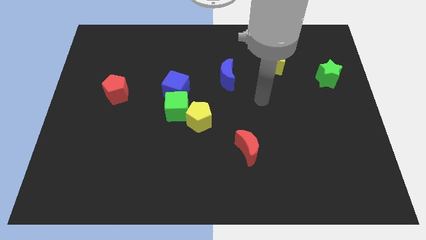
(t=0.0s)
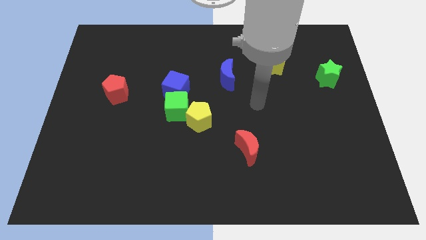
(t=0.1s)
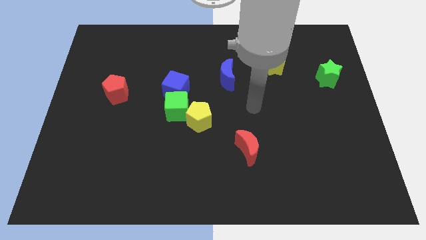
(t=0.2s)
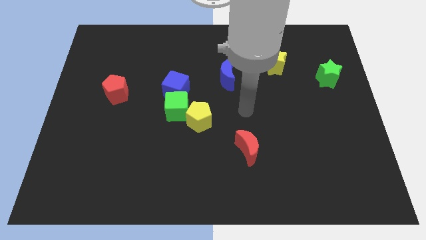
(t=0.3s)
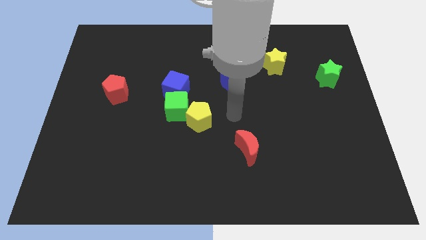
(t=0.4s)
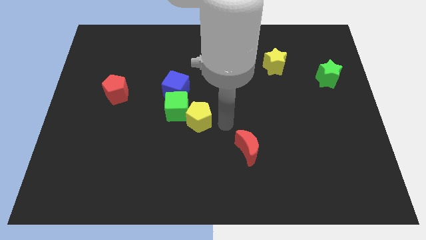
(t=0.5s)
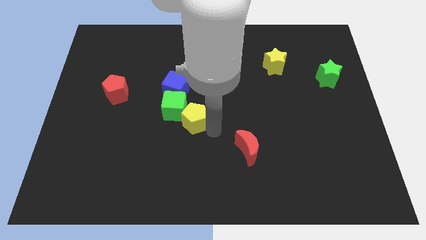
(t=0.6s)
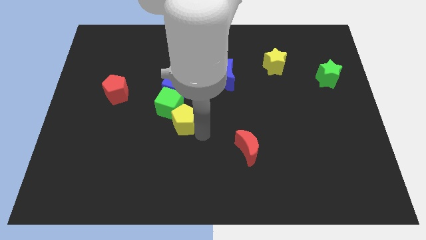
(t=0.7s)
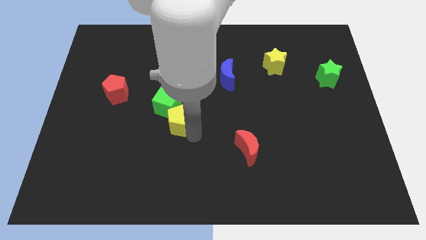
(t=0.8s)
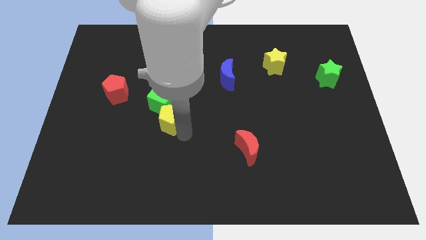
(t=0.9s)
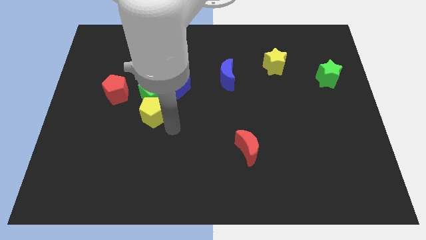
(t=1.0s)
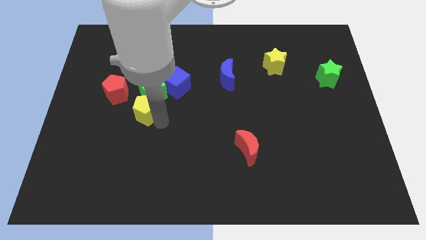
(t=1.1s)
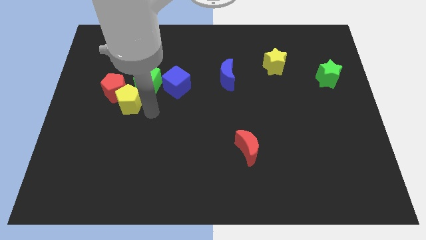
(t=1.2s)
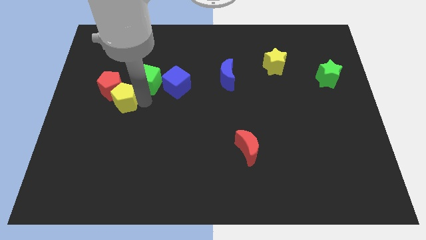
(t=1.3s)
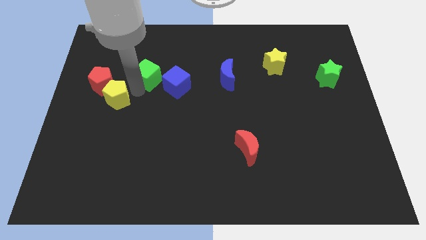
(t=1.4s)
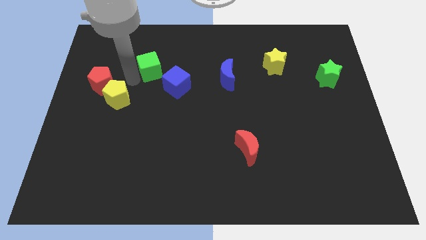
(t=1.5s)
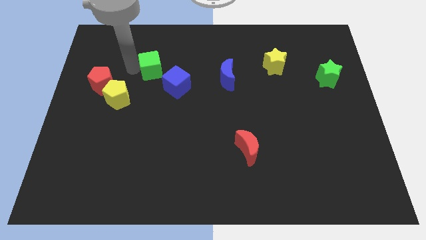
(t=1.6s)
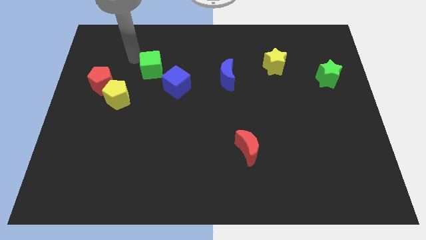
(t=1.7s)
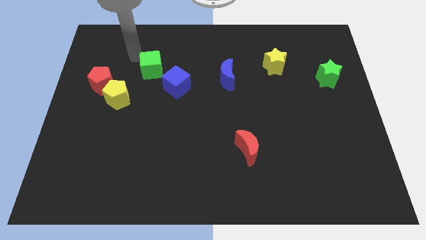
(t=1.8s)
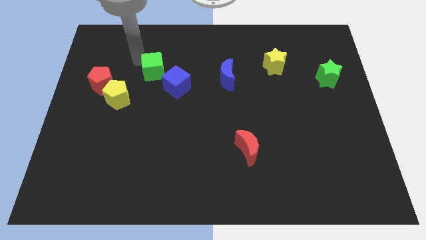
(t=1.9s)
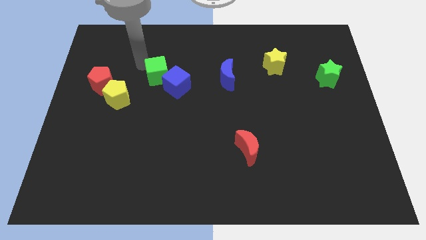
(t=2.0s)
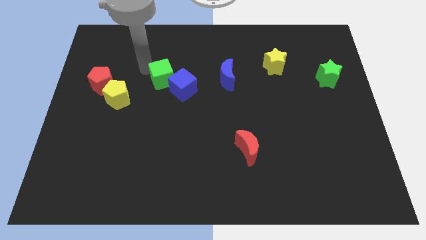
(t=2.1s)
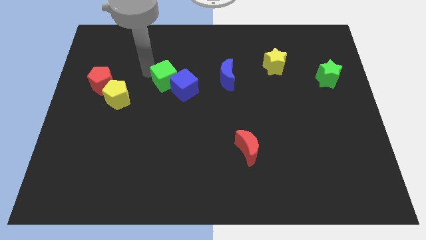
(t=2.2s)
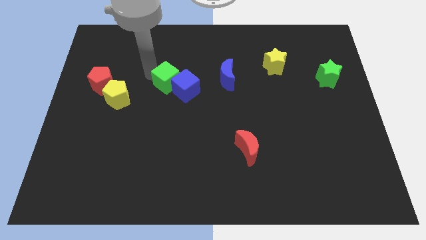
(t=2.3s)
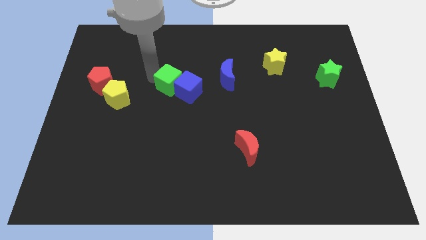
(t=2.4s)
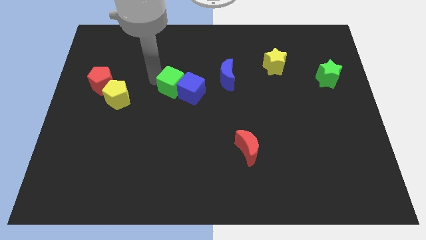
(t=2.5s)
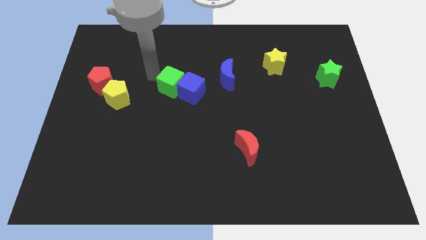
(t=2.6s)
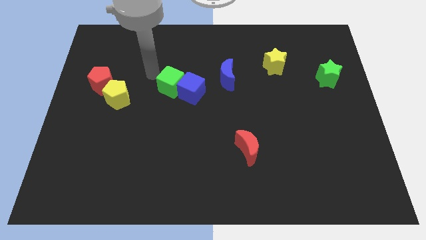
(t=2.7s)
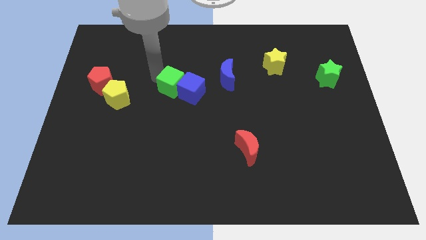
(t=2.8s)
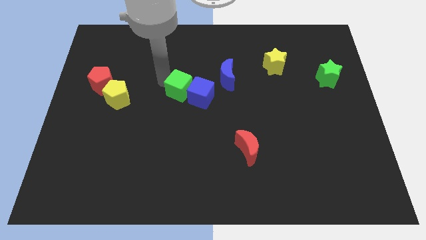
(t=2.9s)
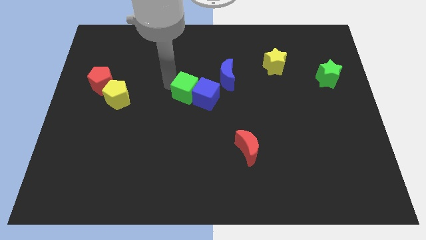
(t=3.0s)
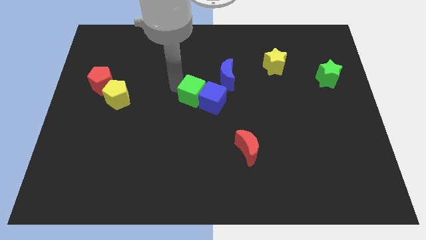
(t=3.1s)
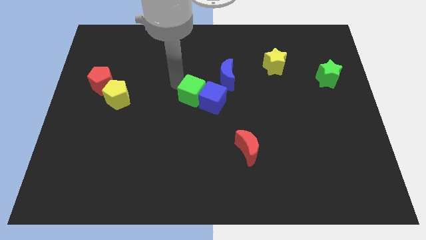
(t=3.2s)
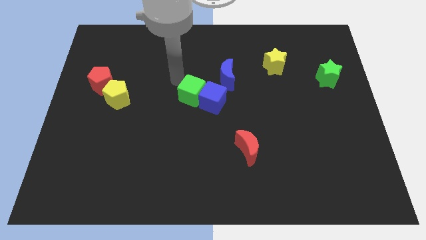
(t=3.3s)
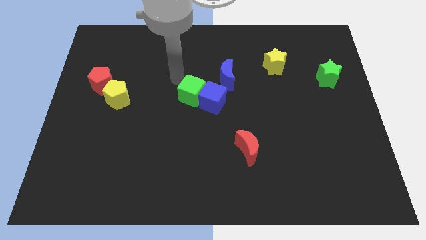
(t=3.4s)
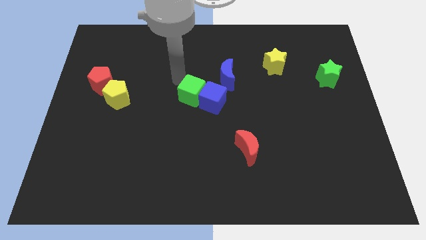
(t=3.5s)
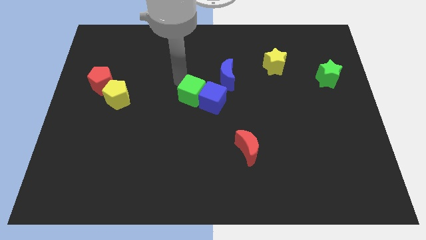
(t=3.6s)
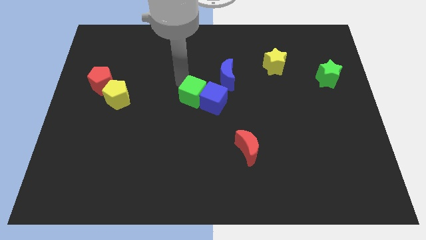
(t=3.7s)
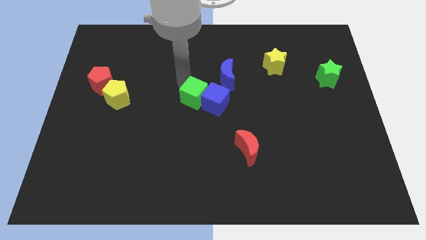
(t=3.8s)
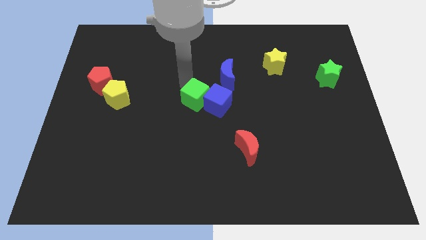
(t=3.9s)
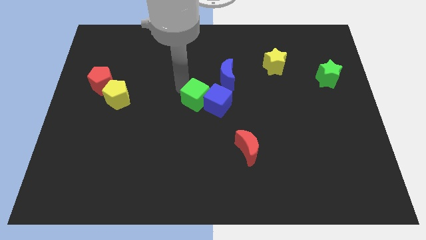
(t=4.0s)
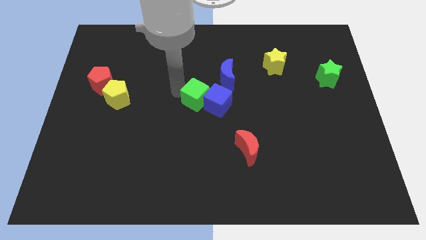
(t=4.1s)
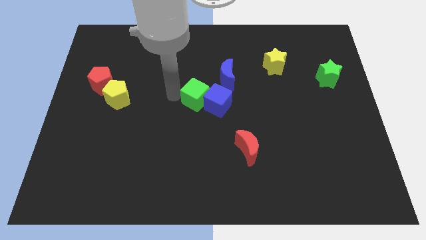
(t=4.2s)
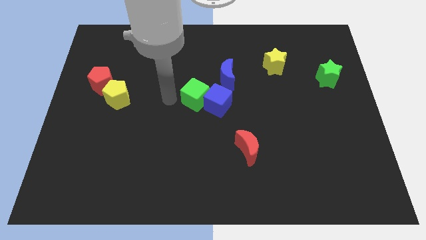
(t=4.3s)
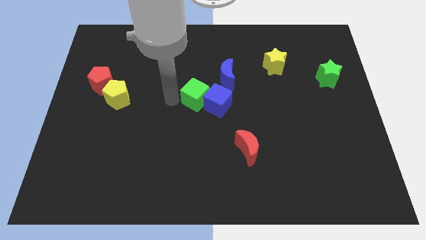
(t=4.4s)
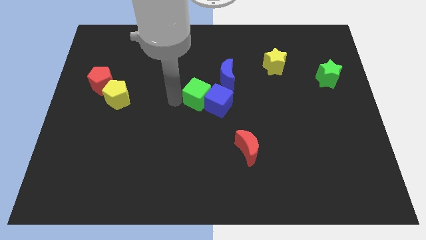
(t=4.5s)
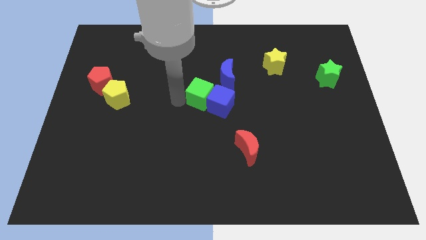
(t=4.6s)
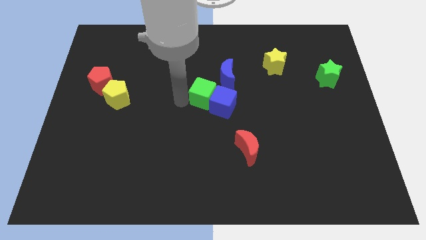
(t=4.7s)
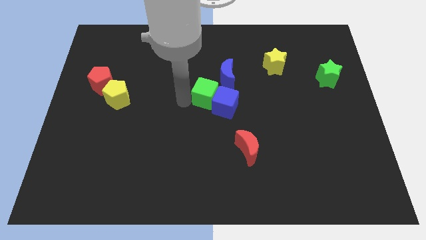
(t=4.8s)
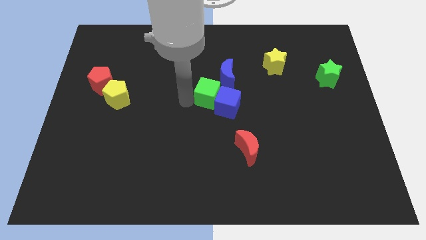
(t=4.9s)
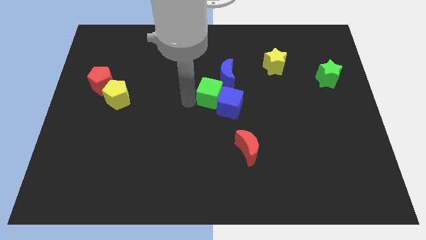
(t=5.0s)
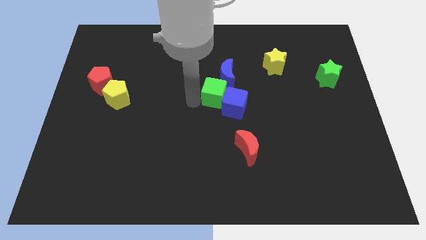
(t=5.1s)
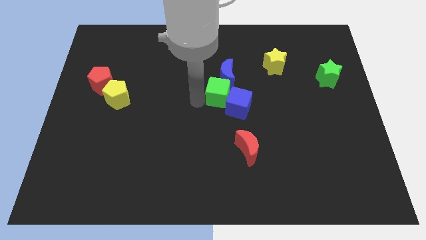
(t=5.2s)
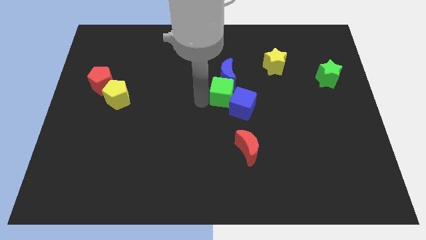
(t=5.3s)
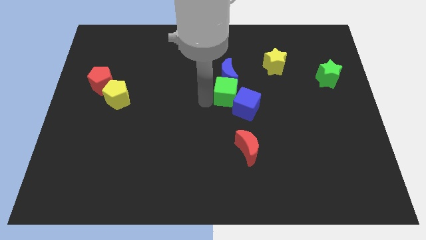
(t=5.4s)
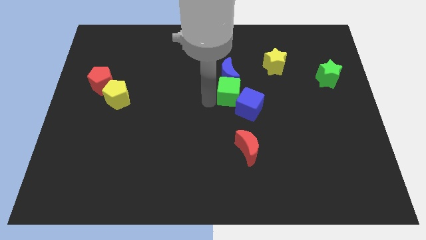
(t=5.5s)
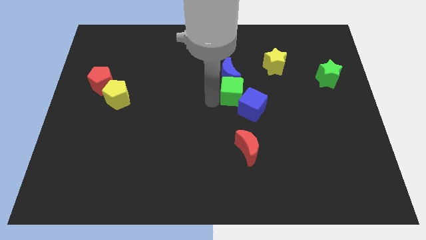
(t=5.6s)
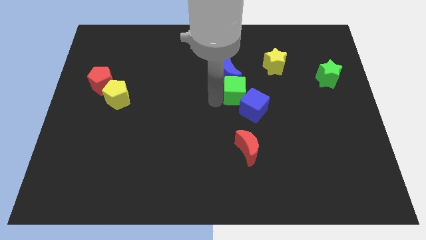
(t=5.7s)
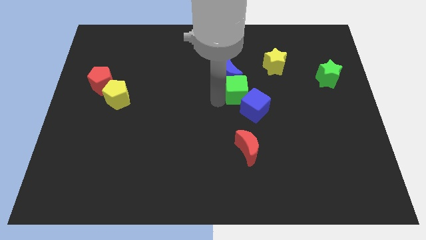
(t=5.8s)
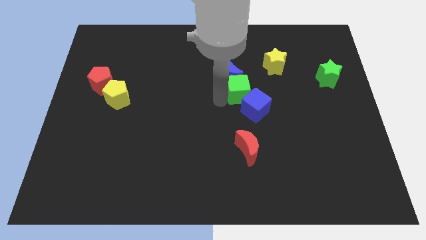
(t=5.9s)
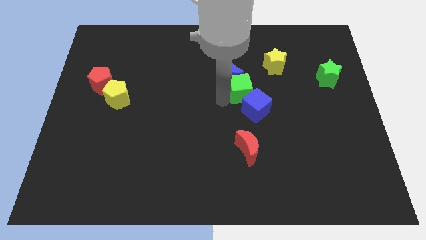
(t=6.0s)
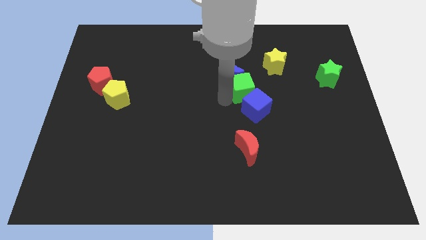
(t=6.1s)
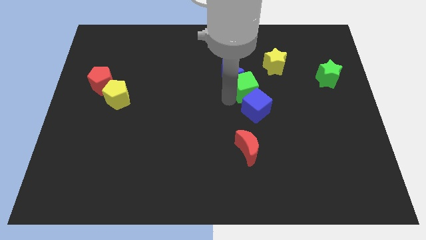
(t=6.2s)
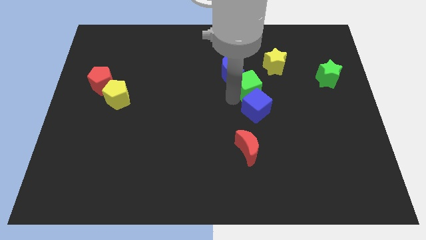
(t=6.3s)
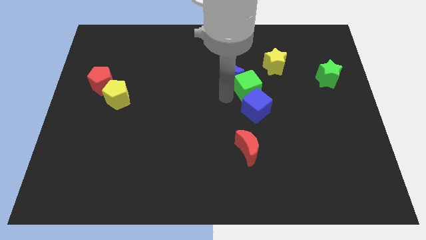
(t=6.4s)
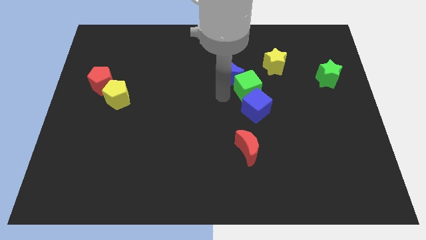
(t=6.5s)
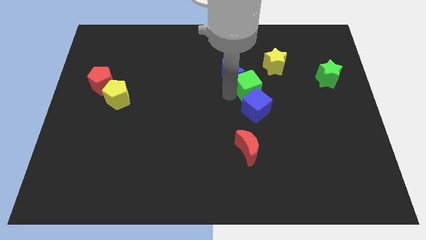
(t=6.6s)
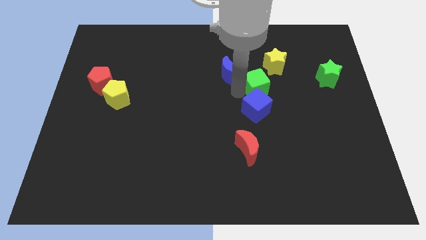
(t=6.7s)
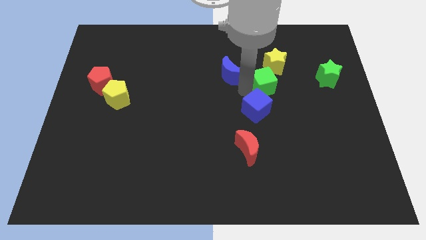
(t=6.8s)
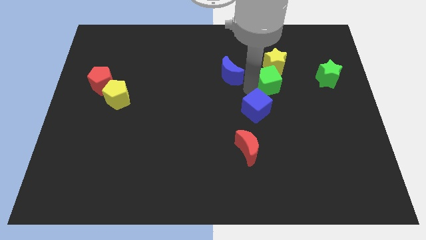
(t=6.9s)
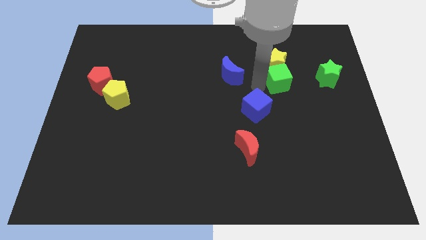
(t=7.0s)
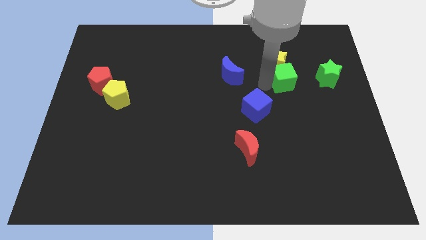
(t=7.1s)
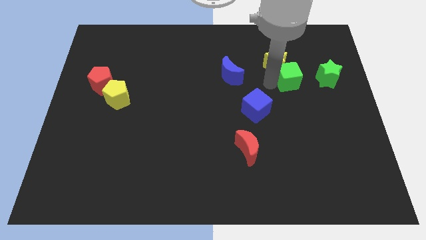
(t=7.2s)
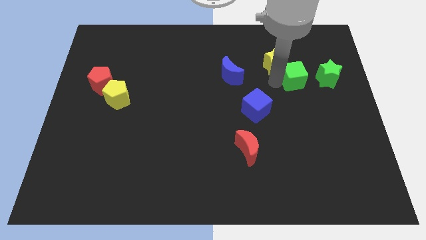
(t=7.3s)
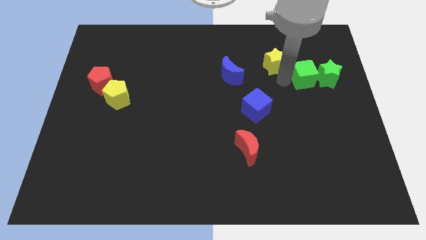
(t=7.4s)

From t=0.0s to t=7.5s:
put the green cube close to the green star

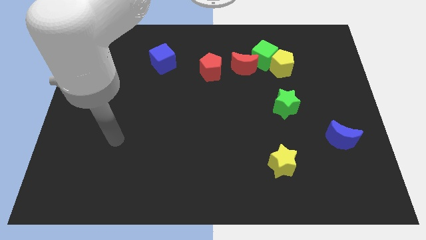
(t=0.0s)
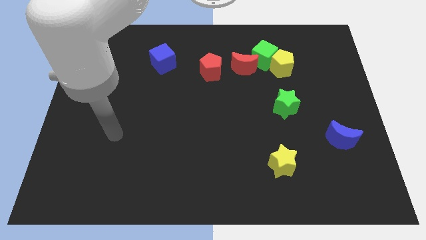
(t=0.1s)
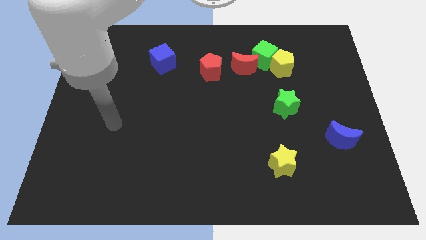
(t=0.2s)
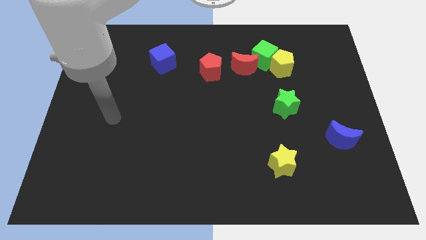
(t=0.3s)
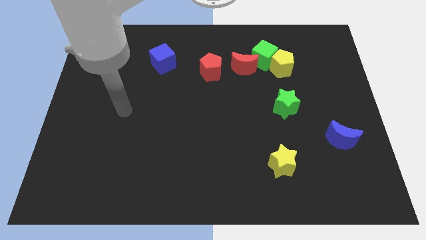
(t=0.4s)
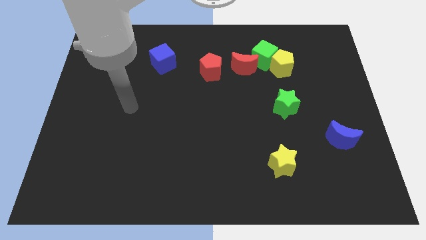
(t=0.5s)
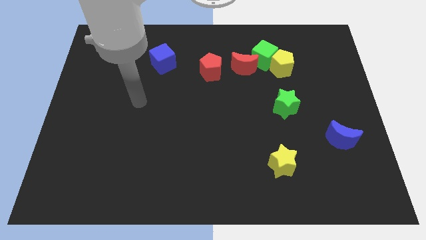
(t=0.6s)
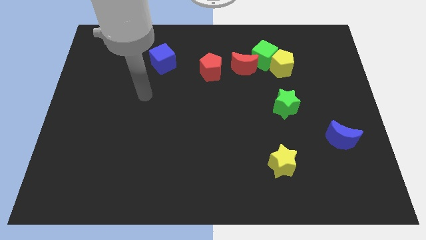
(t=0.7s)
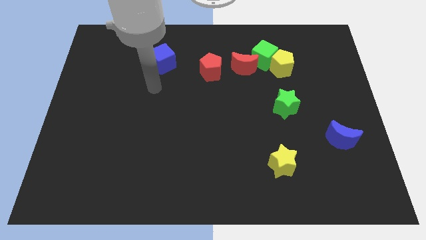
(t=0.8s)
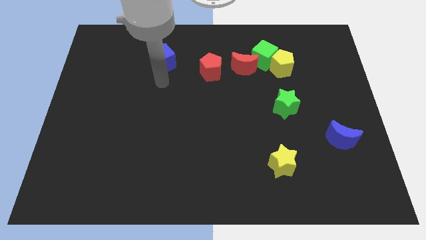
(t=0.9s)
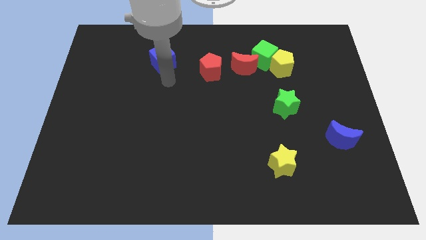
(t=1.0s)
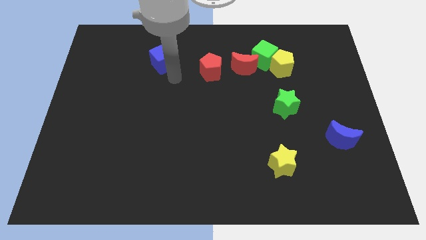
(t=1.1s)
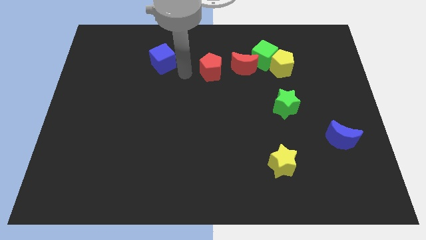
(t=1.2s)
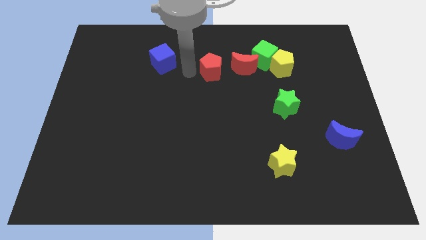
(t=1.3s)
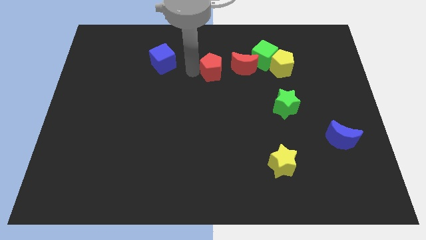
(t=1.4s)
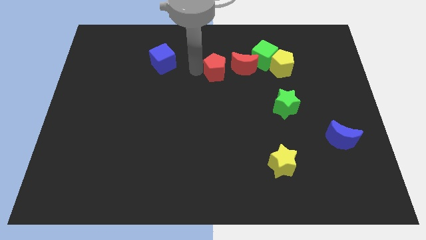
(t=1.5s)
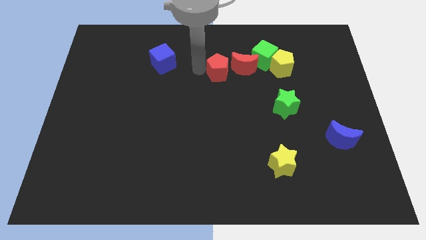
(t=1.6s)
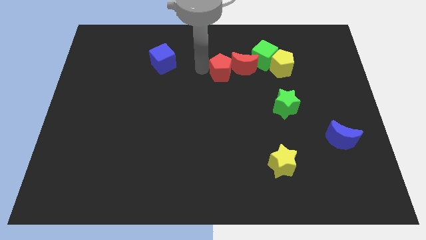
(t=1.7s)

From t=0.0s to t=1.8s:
push the red pentagon to the red moon
